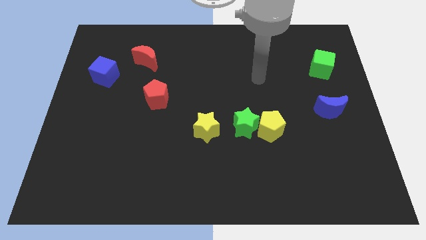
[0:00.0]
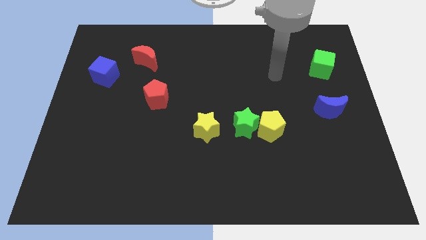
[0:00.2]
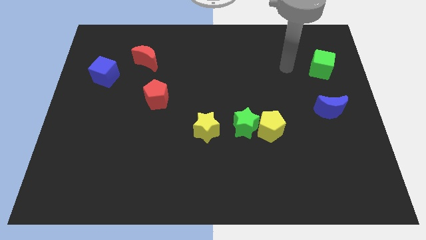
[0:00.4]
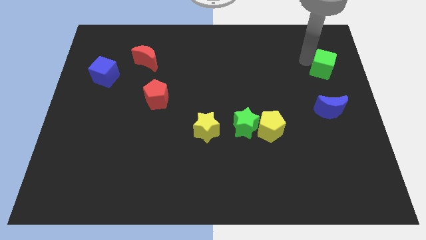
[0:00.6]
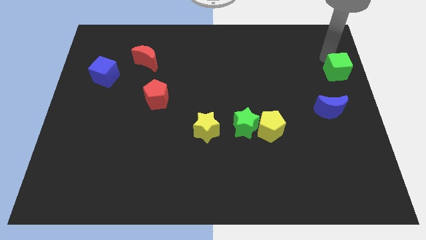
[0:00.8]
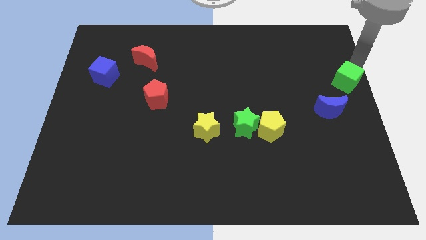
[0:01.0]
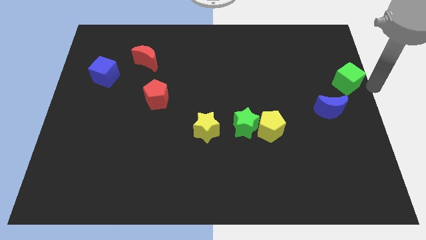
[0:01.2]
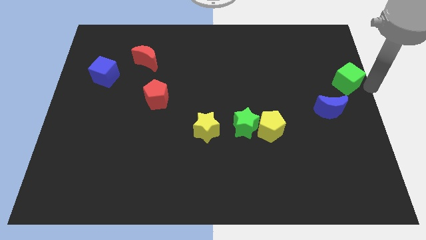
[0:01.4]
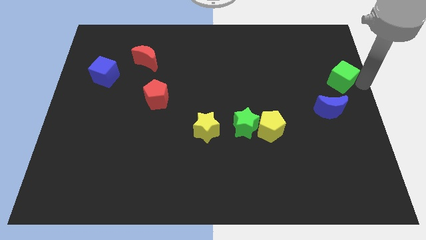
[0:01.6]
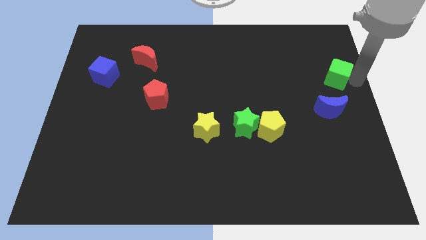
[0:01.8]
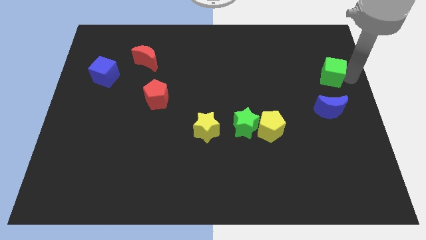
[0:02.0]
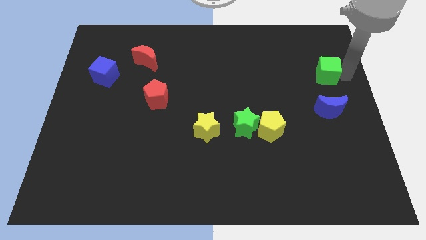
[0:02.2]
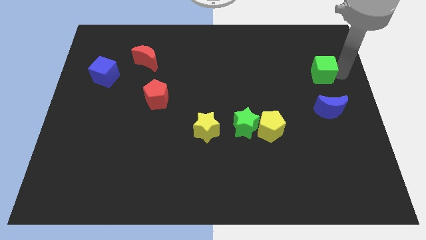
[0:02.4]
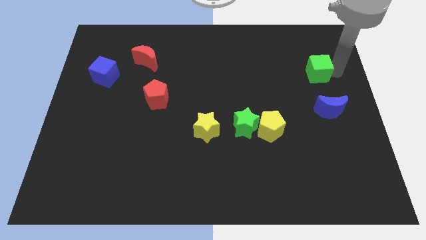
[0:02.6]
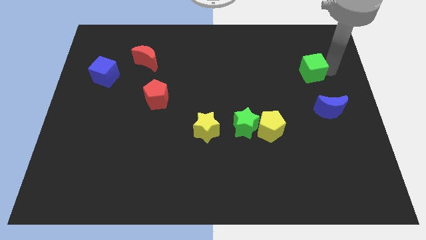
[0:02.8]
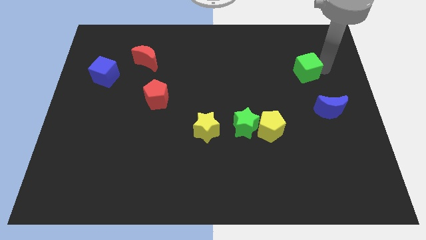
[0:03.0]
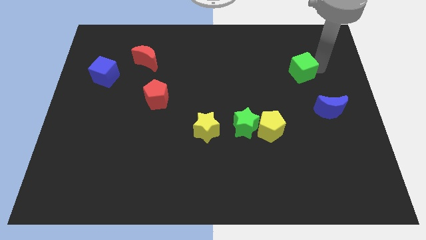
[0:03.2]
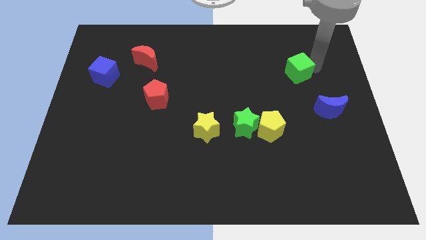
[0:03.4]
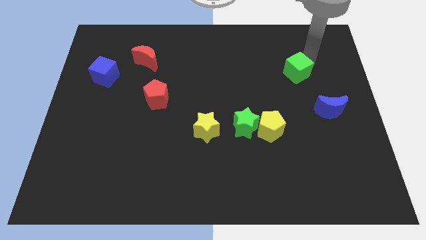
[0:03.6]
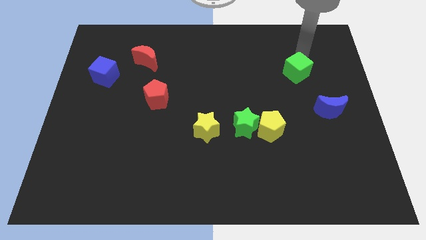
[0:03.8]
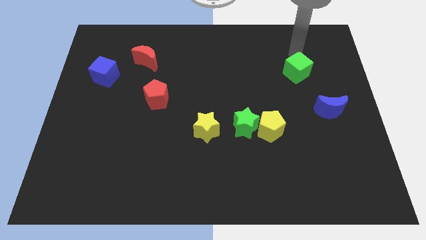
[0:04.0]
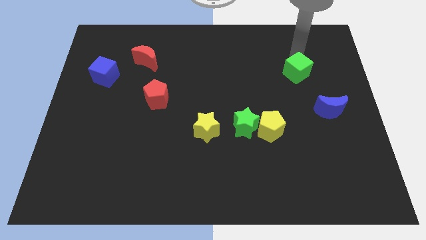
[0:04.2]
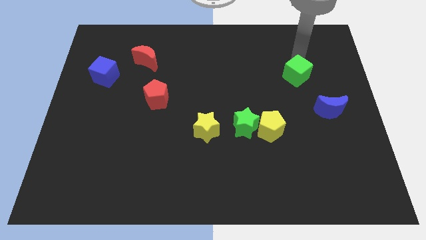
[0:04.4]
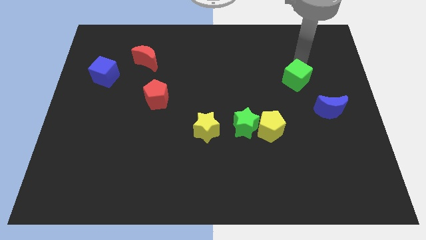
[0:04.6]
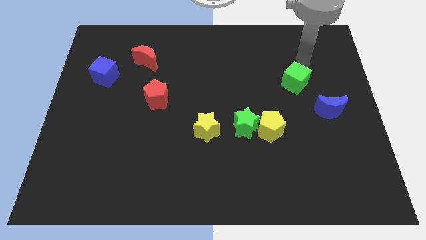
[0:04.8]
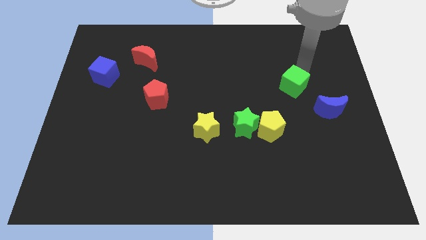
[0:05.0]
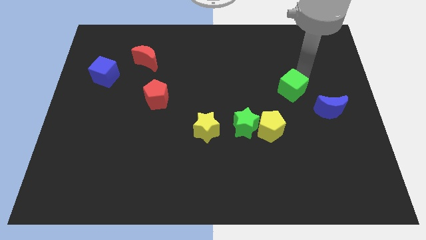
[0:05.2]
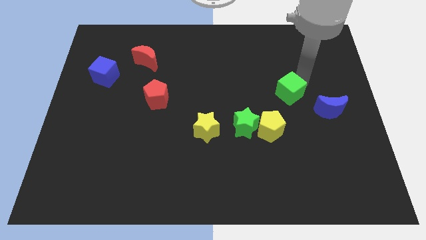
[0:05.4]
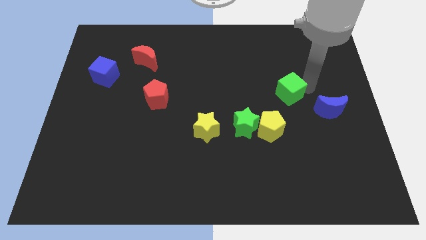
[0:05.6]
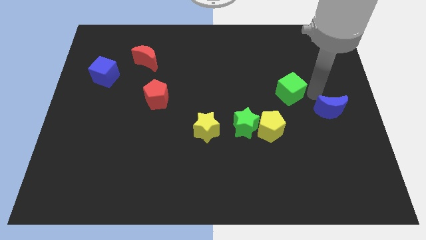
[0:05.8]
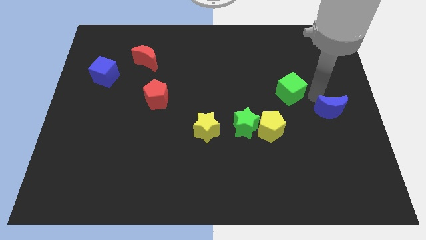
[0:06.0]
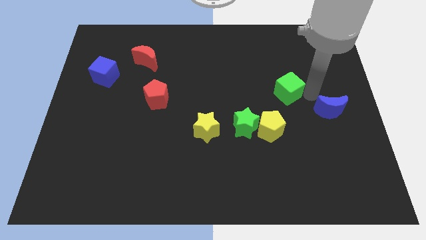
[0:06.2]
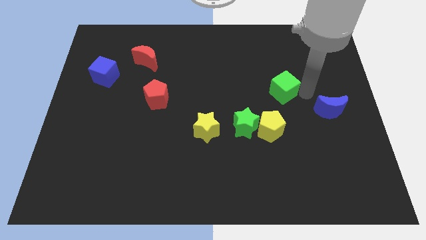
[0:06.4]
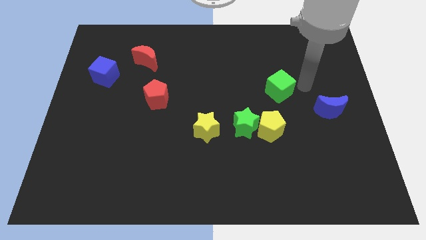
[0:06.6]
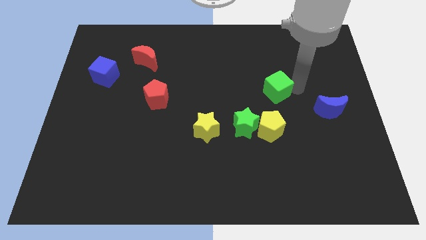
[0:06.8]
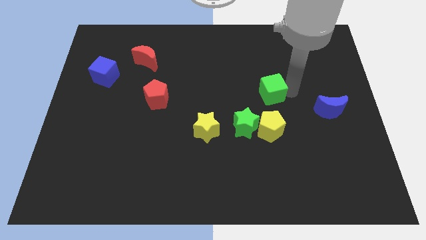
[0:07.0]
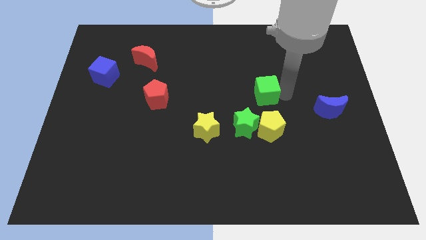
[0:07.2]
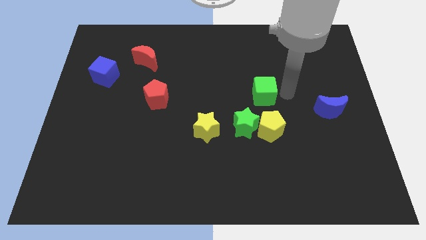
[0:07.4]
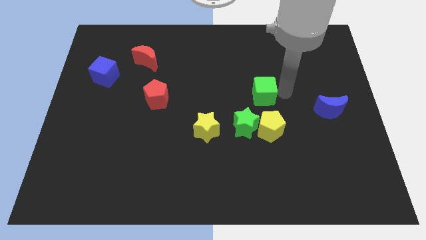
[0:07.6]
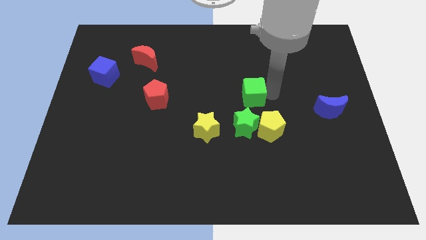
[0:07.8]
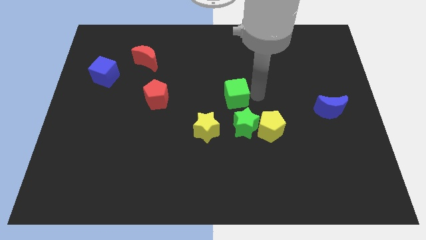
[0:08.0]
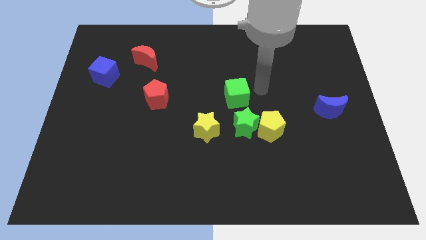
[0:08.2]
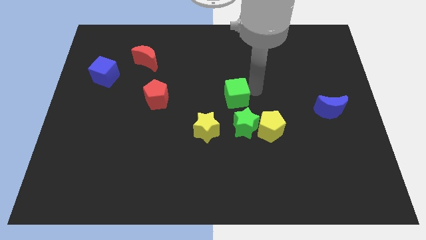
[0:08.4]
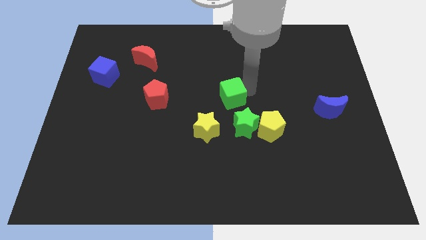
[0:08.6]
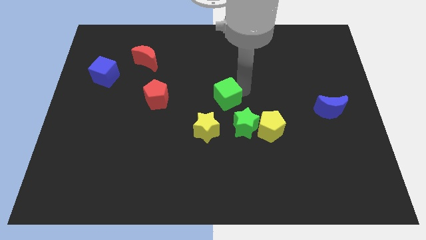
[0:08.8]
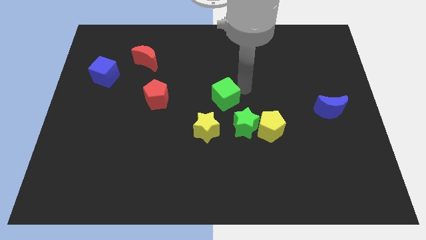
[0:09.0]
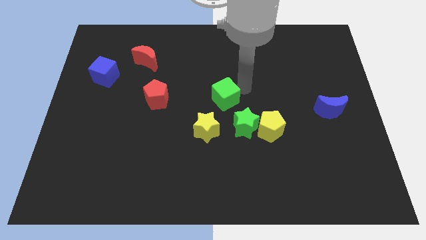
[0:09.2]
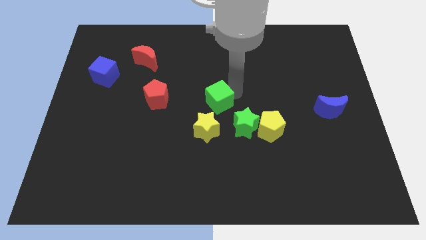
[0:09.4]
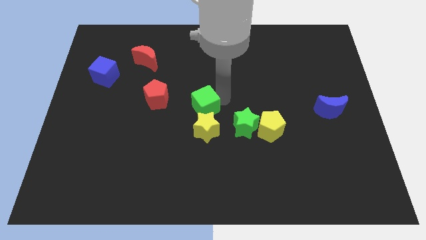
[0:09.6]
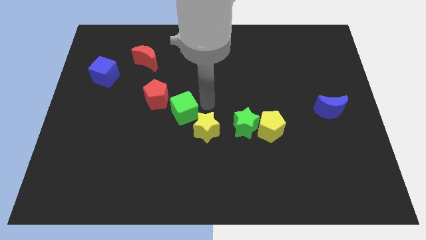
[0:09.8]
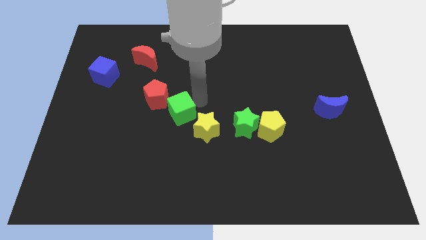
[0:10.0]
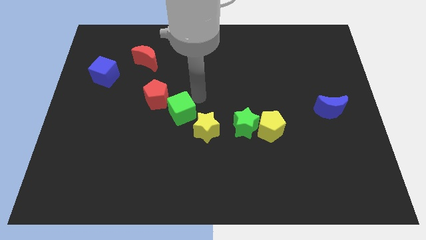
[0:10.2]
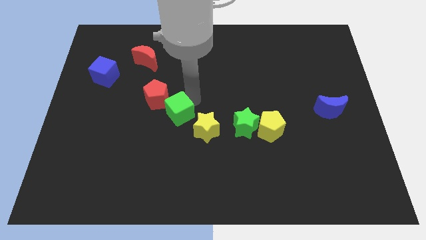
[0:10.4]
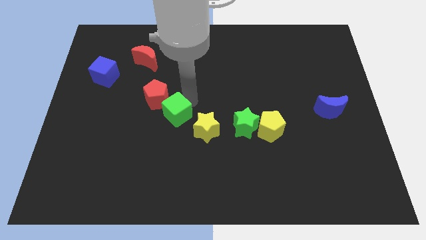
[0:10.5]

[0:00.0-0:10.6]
push the green cube left of the yellow star

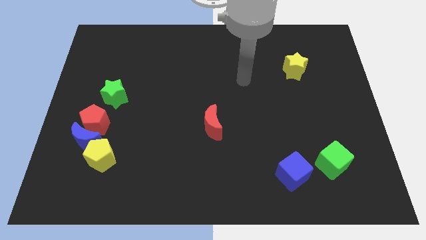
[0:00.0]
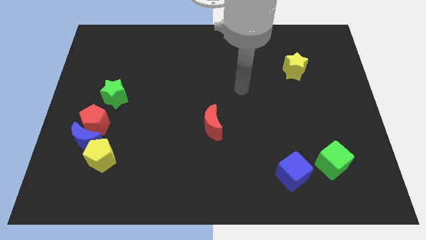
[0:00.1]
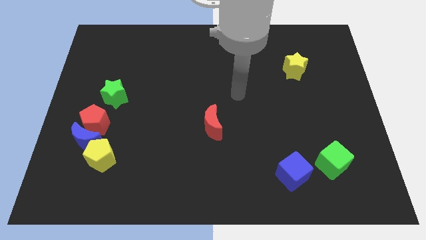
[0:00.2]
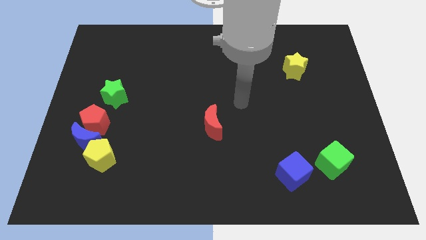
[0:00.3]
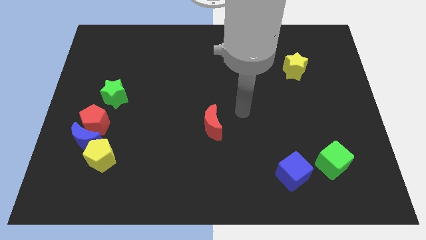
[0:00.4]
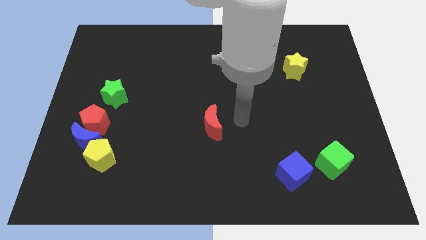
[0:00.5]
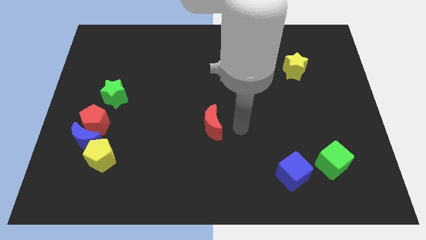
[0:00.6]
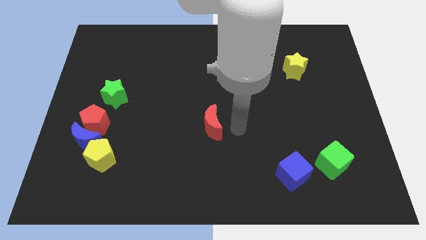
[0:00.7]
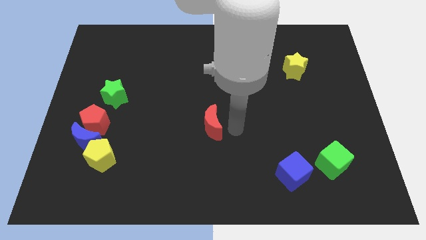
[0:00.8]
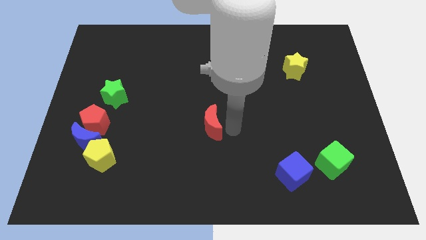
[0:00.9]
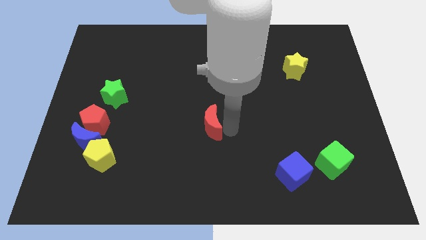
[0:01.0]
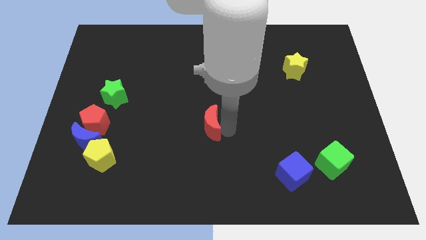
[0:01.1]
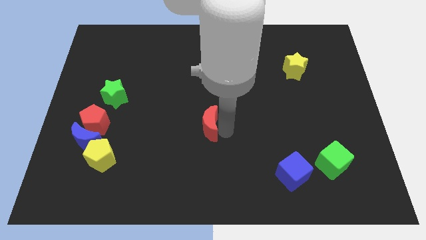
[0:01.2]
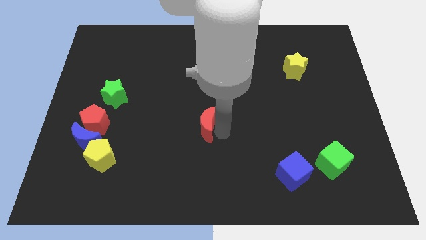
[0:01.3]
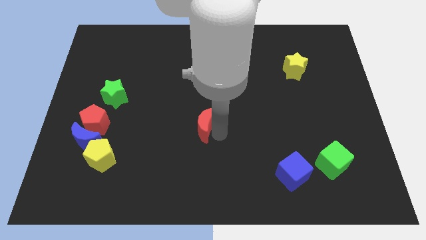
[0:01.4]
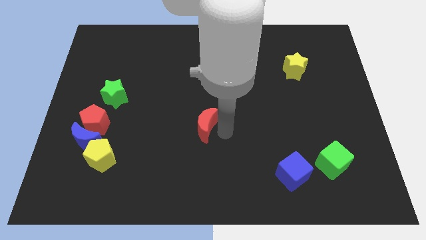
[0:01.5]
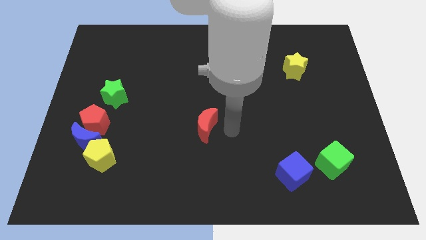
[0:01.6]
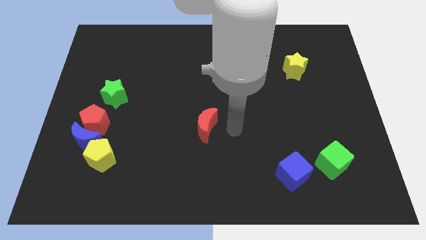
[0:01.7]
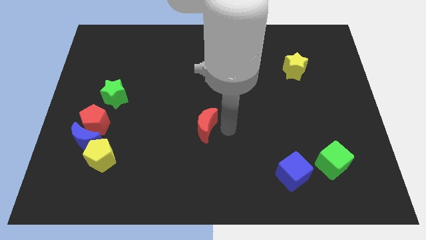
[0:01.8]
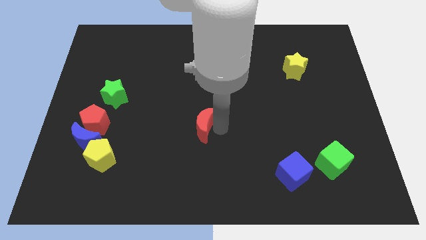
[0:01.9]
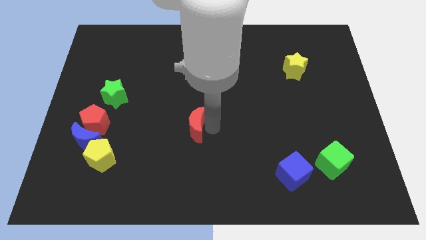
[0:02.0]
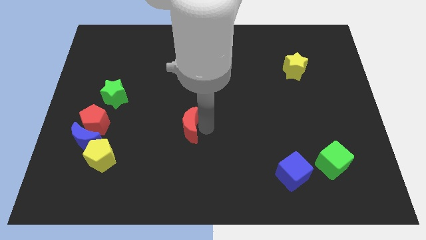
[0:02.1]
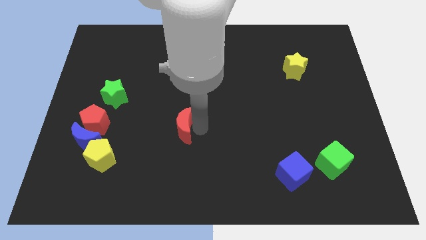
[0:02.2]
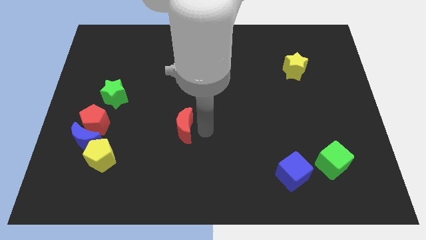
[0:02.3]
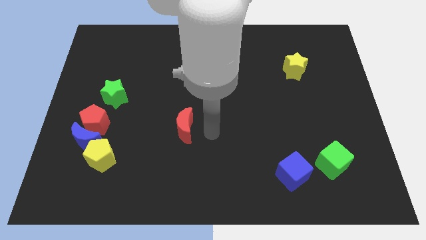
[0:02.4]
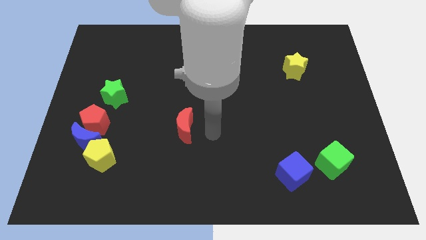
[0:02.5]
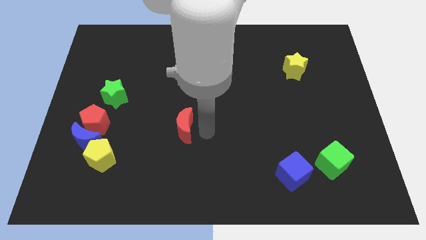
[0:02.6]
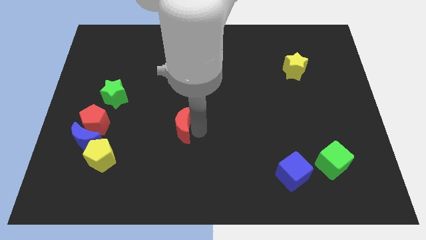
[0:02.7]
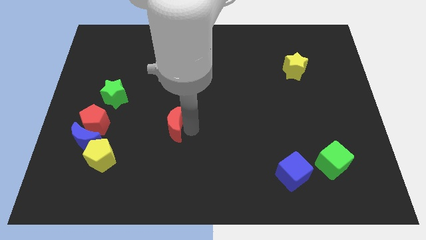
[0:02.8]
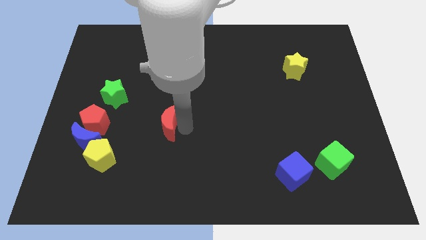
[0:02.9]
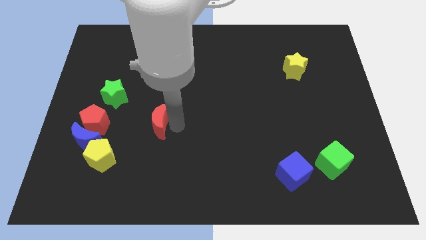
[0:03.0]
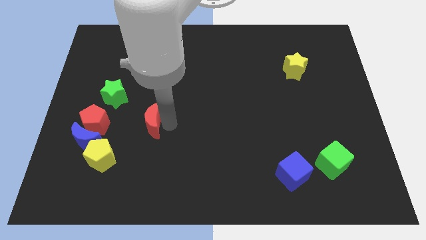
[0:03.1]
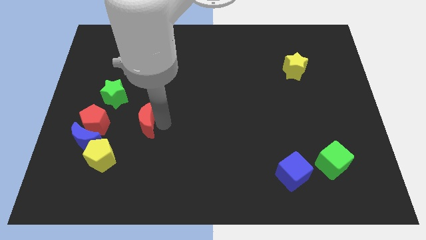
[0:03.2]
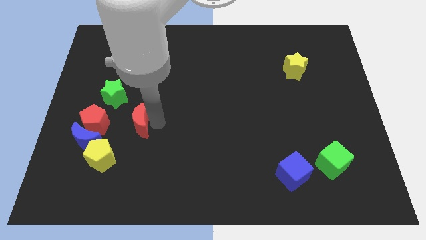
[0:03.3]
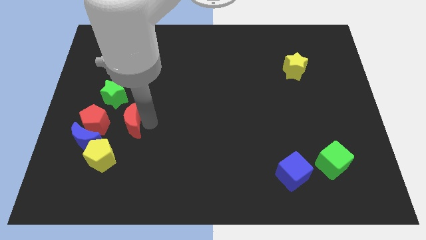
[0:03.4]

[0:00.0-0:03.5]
slide the red moon diagonally up and to the right of the blue moon
